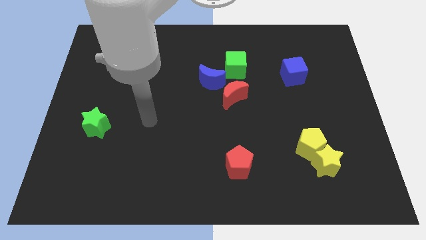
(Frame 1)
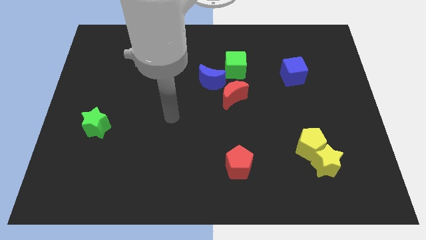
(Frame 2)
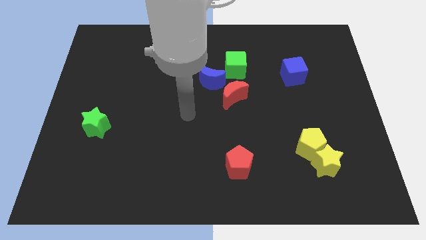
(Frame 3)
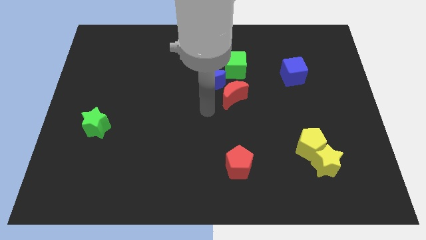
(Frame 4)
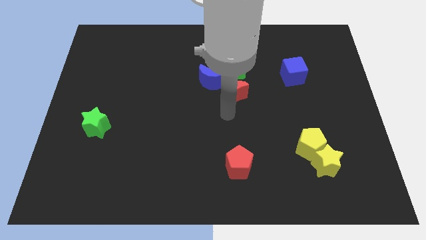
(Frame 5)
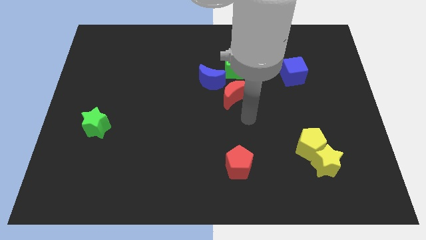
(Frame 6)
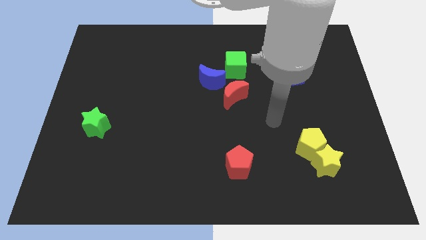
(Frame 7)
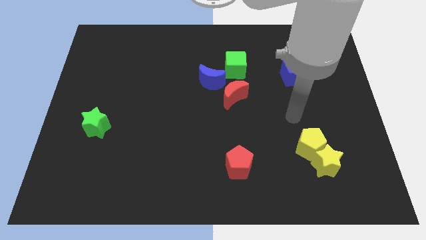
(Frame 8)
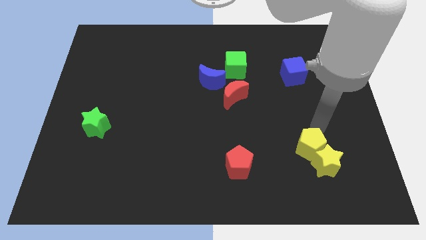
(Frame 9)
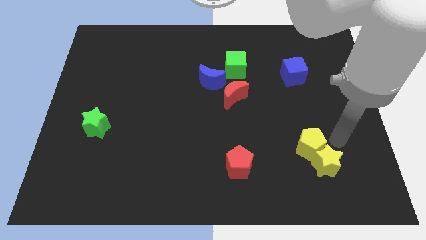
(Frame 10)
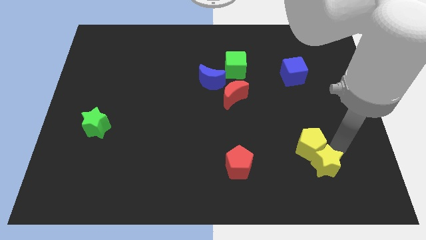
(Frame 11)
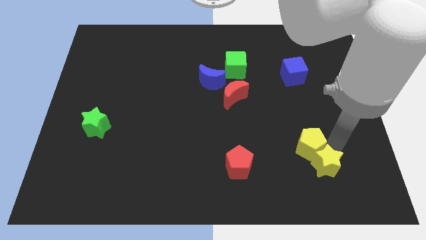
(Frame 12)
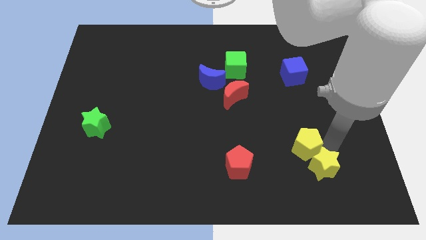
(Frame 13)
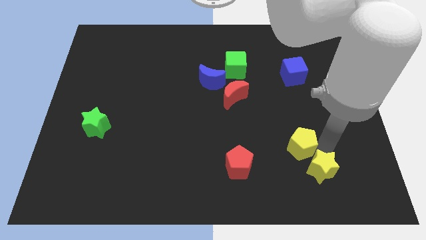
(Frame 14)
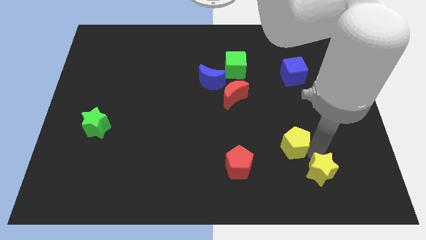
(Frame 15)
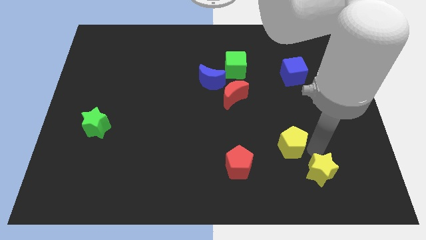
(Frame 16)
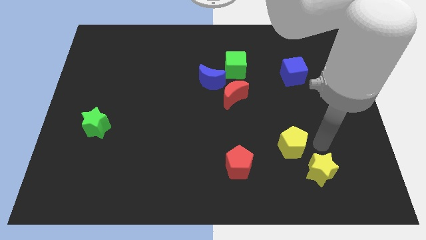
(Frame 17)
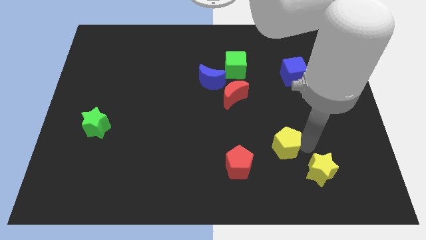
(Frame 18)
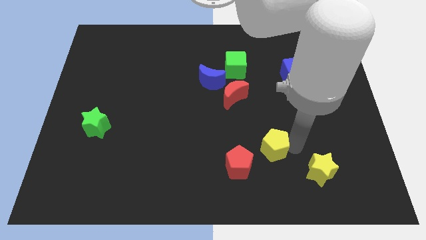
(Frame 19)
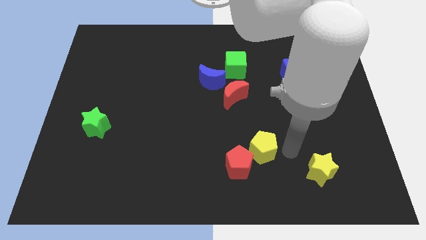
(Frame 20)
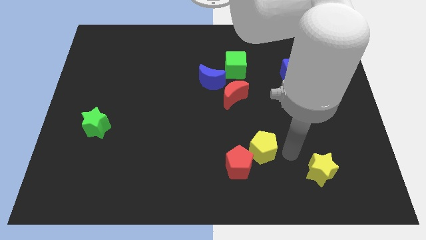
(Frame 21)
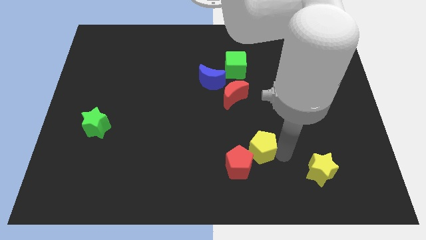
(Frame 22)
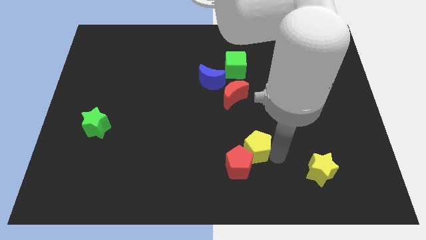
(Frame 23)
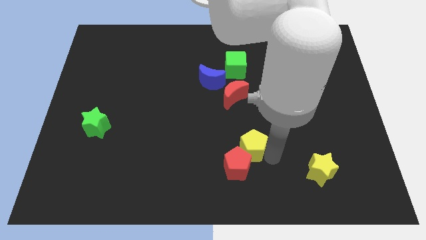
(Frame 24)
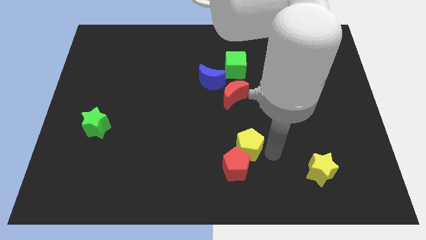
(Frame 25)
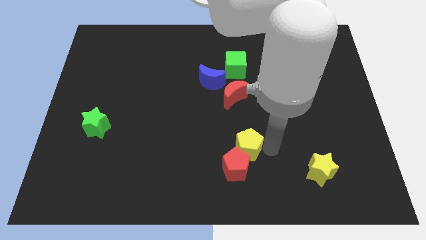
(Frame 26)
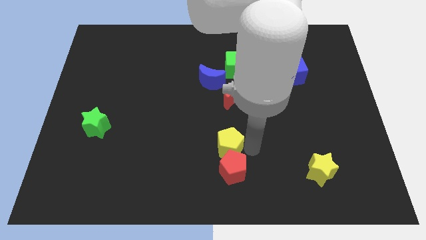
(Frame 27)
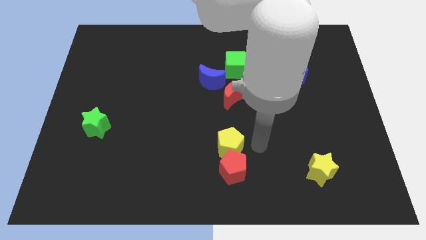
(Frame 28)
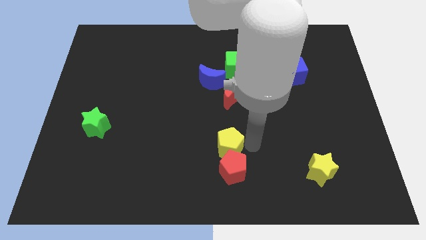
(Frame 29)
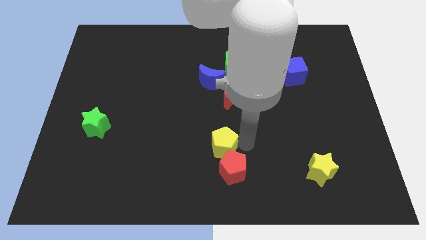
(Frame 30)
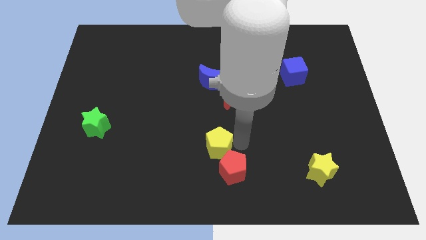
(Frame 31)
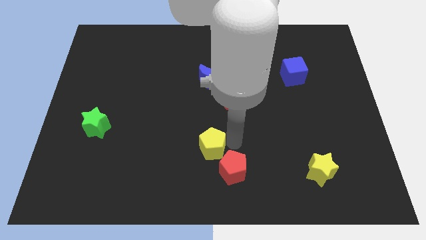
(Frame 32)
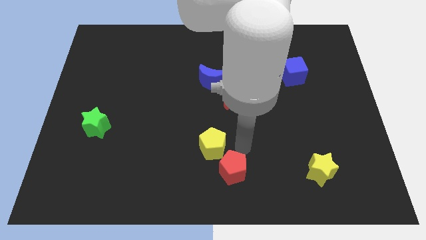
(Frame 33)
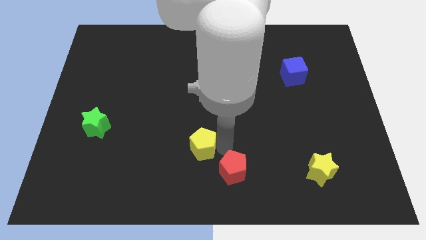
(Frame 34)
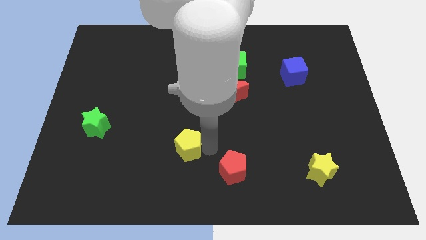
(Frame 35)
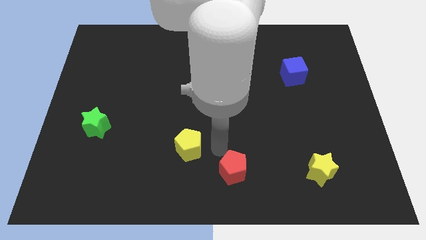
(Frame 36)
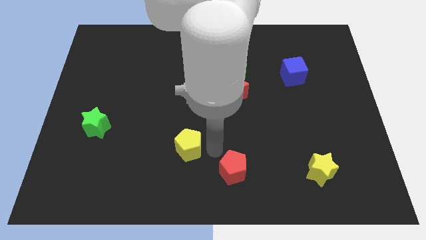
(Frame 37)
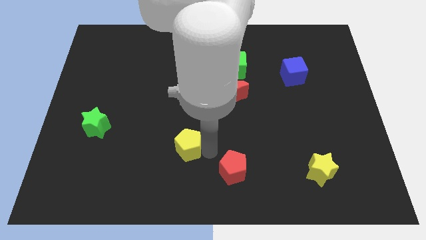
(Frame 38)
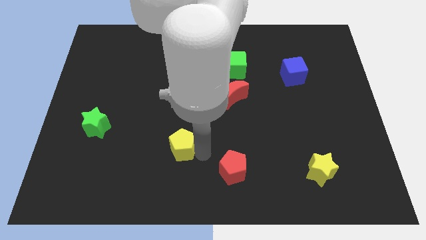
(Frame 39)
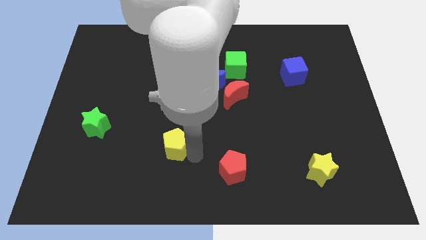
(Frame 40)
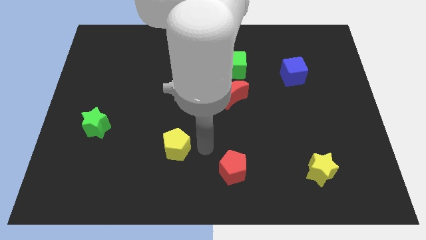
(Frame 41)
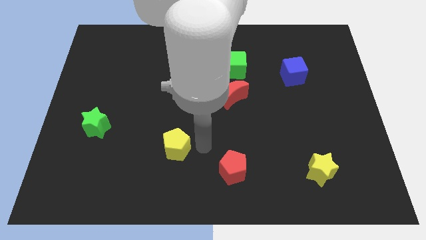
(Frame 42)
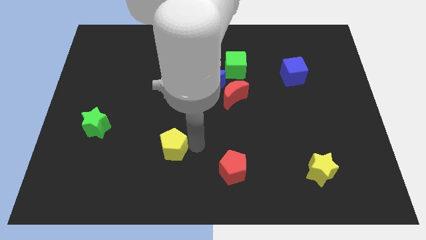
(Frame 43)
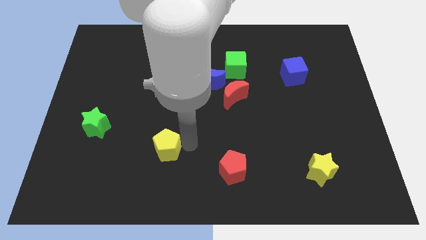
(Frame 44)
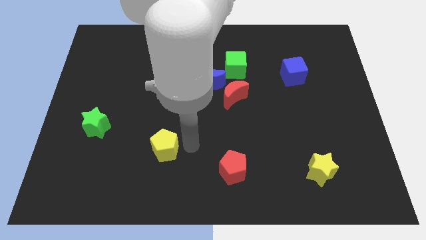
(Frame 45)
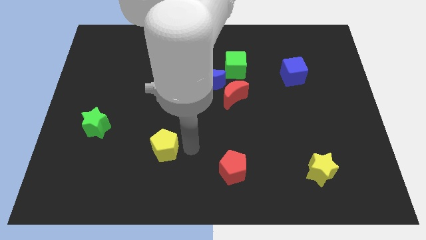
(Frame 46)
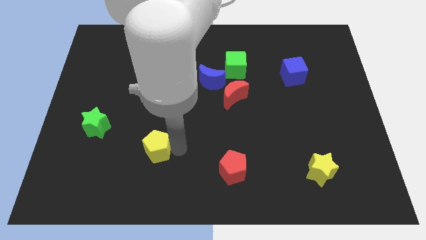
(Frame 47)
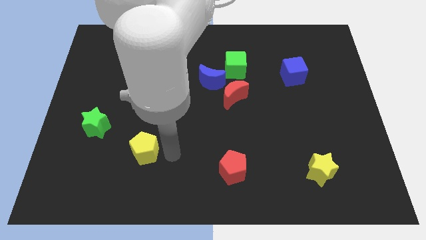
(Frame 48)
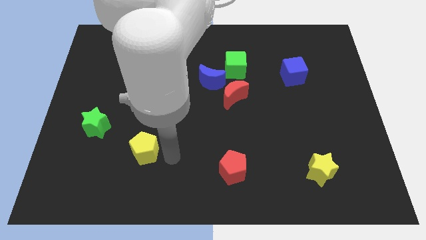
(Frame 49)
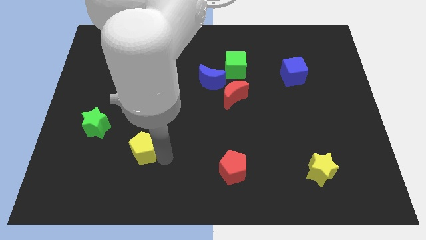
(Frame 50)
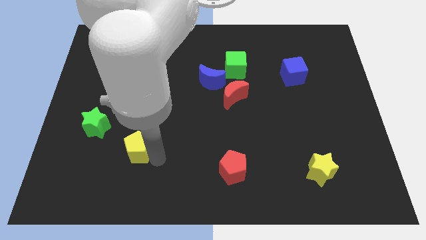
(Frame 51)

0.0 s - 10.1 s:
move the yellow pentagon to the bottom right side of the green star

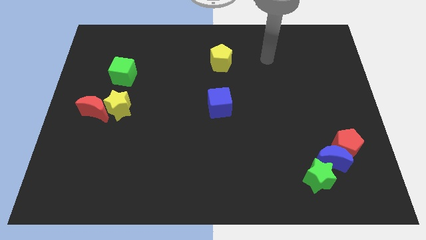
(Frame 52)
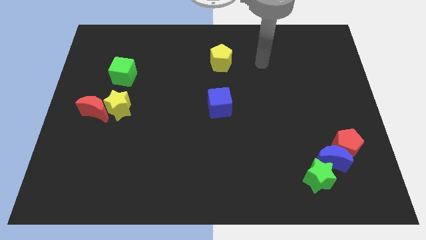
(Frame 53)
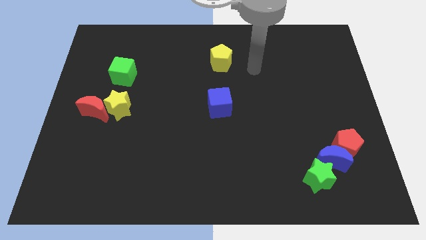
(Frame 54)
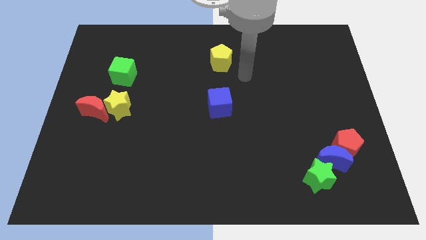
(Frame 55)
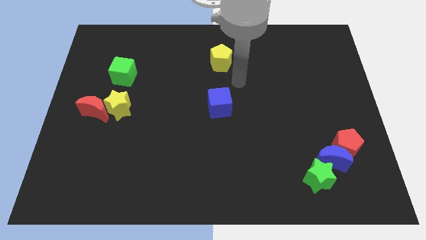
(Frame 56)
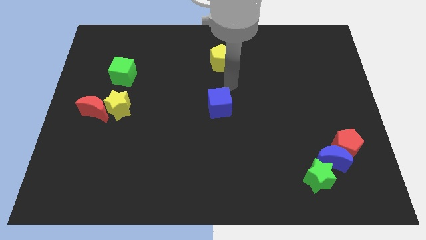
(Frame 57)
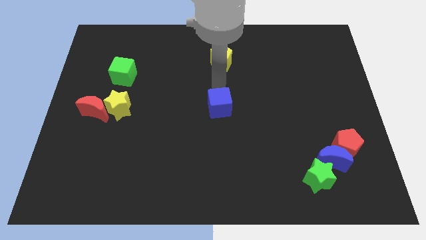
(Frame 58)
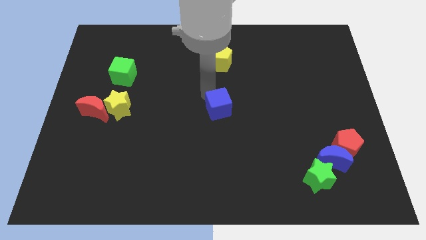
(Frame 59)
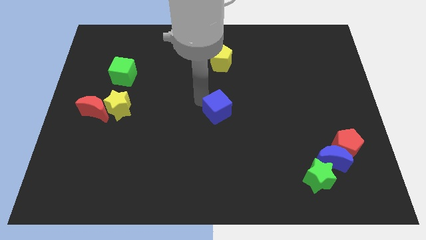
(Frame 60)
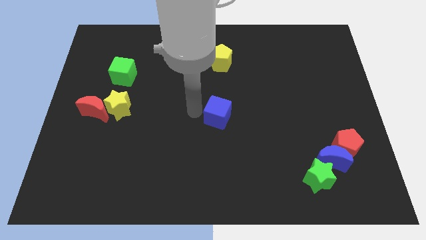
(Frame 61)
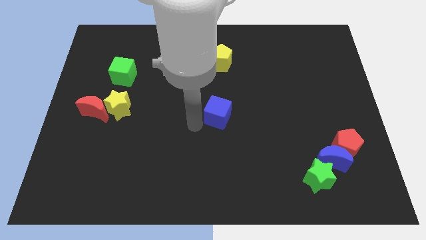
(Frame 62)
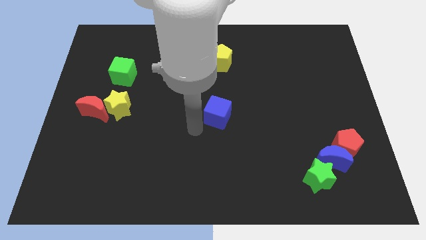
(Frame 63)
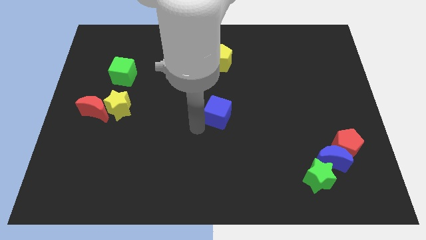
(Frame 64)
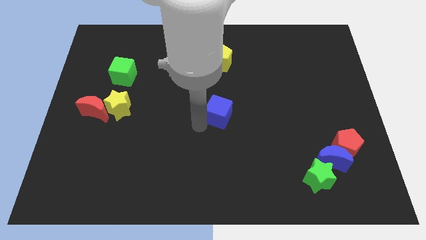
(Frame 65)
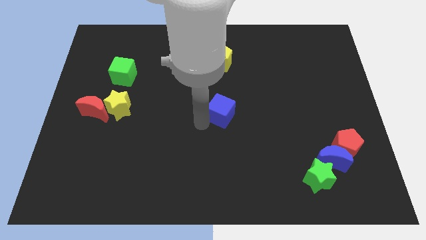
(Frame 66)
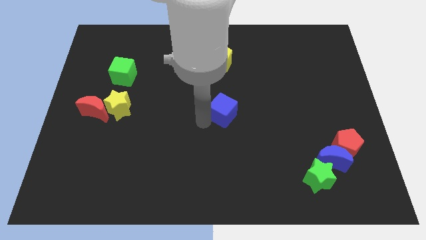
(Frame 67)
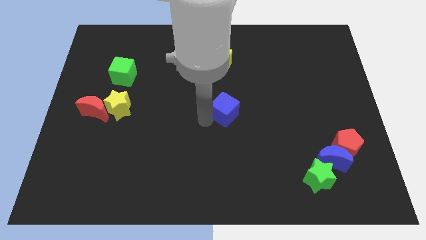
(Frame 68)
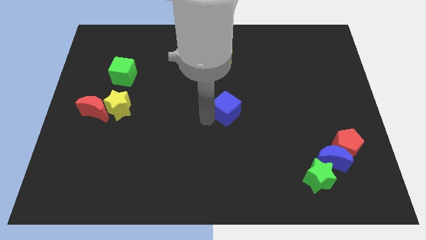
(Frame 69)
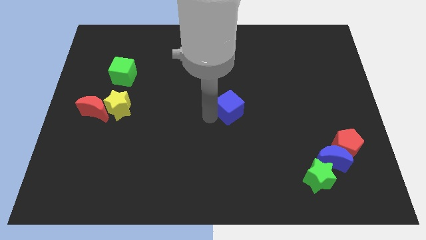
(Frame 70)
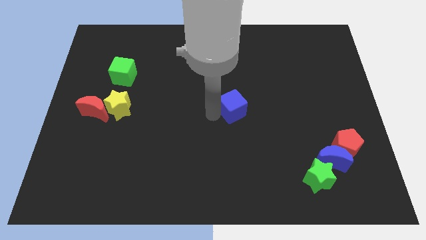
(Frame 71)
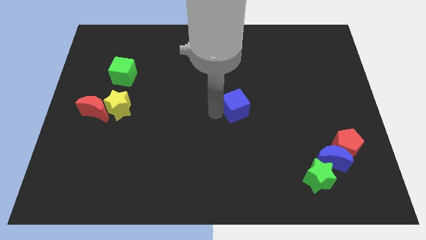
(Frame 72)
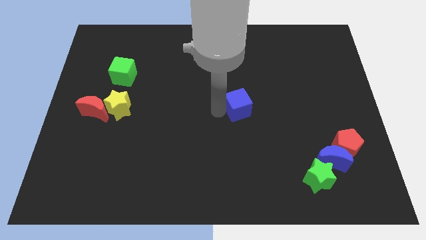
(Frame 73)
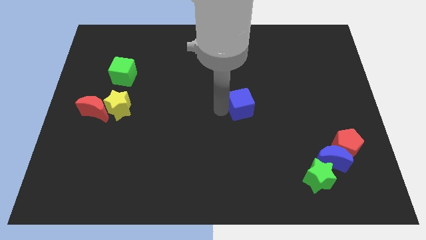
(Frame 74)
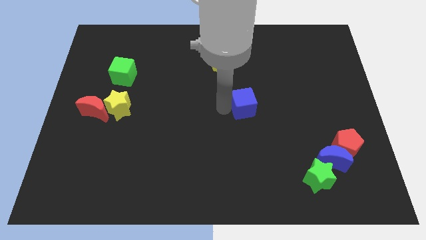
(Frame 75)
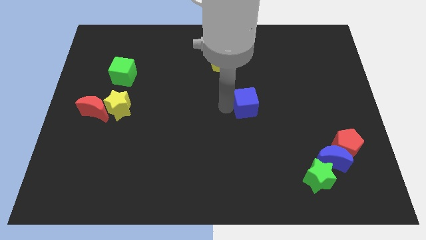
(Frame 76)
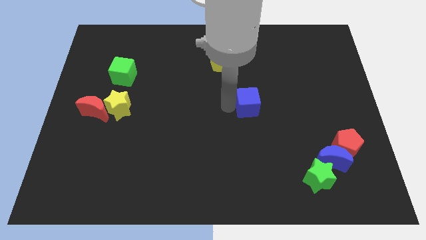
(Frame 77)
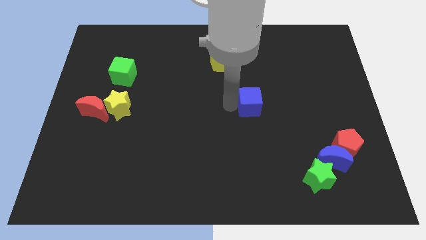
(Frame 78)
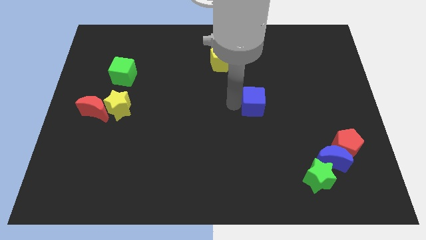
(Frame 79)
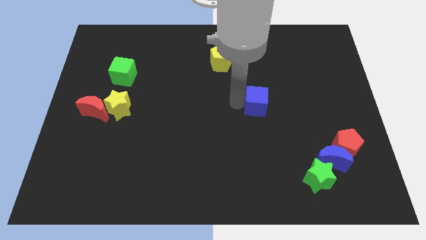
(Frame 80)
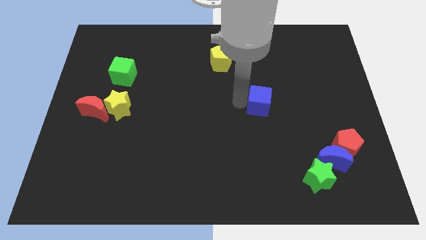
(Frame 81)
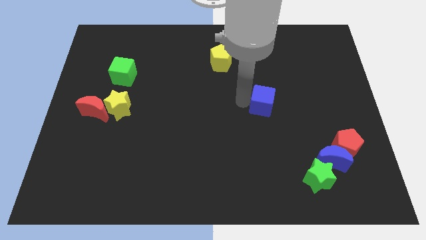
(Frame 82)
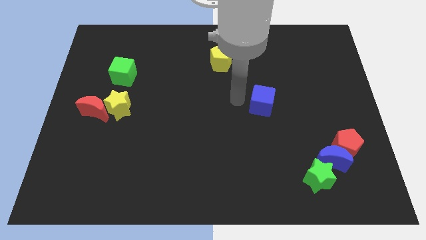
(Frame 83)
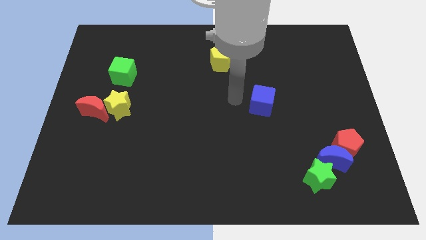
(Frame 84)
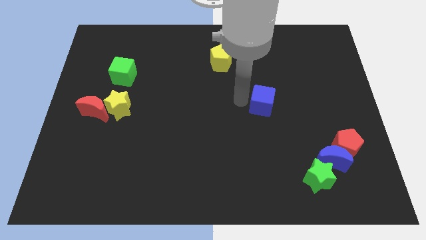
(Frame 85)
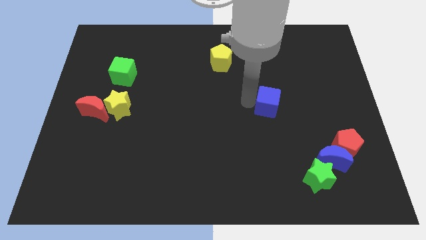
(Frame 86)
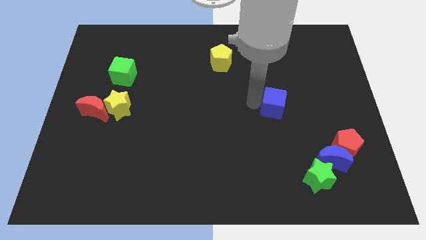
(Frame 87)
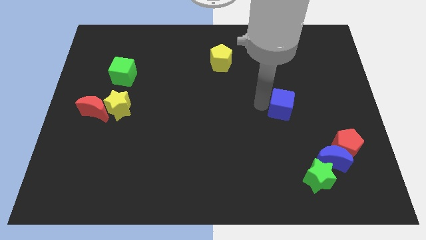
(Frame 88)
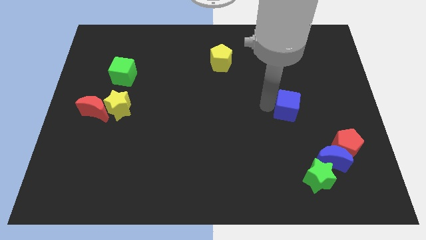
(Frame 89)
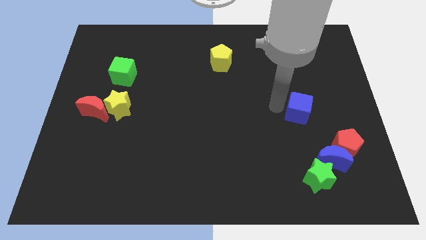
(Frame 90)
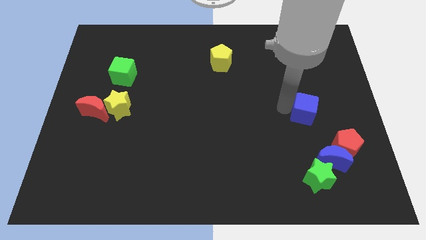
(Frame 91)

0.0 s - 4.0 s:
slide the blue cube to the top side of the blue moon
